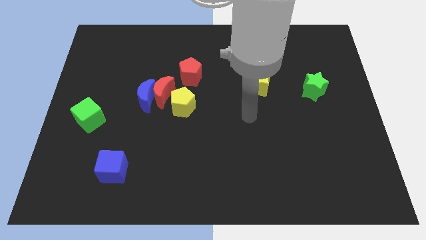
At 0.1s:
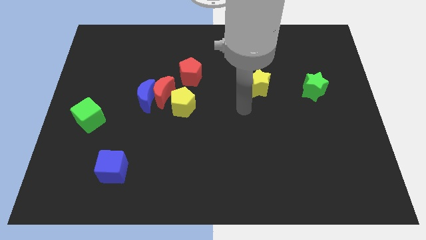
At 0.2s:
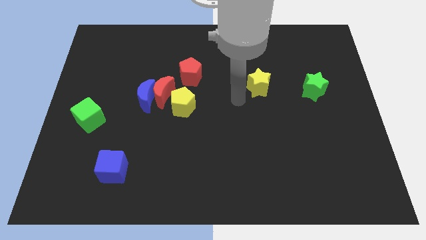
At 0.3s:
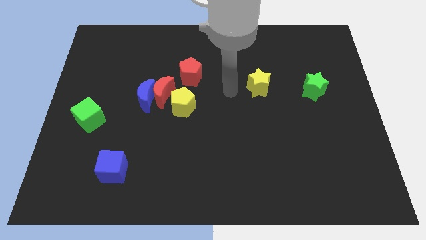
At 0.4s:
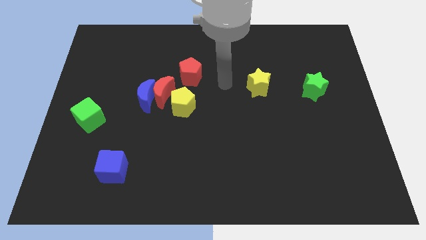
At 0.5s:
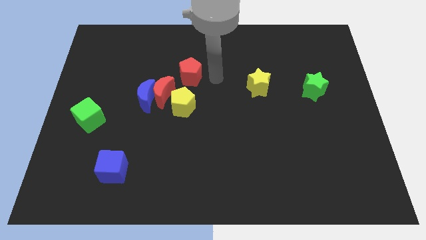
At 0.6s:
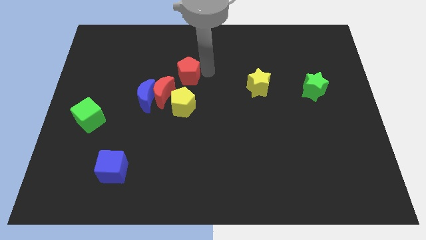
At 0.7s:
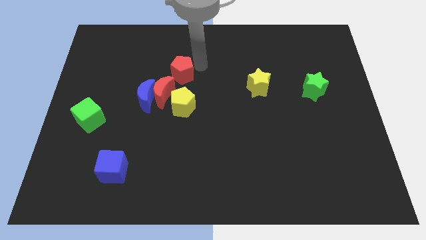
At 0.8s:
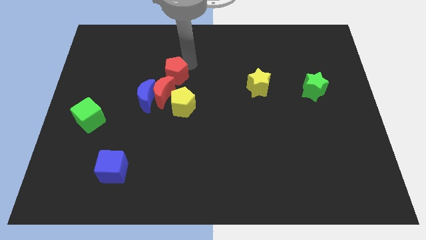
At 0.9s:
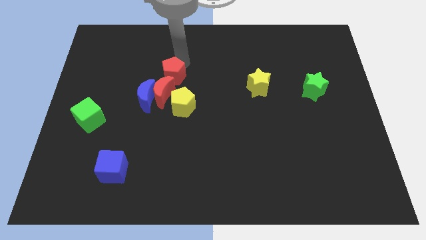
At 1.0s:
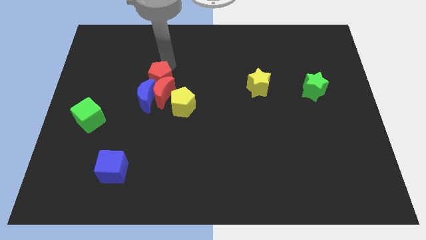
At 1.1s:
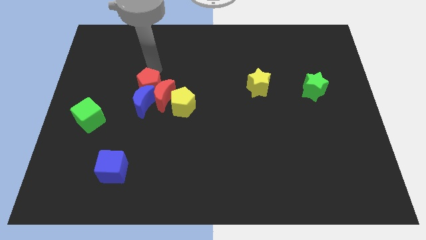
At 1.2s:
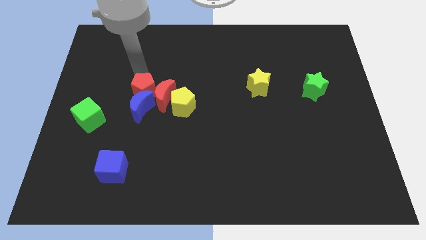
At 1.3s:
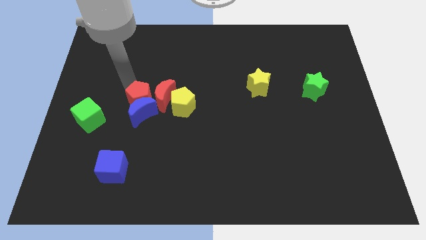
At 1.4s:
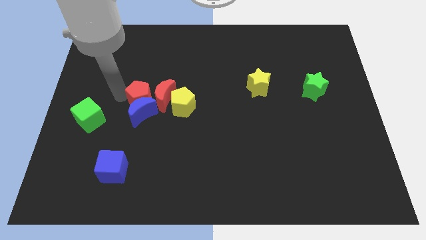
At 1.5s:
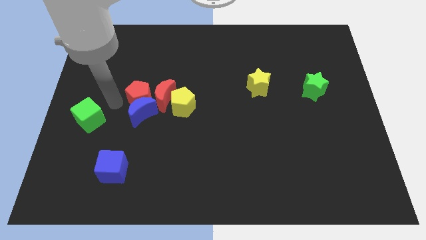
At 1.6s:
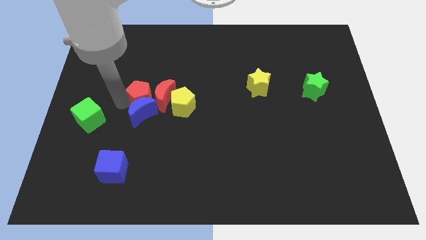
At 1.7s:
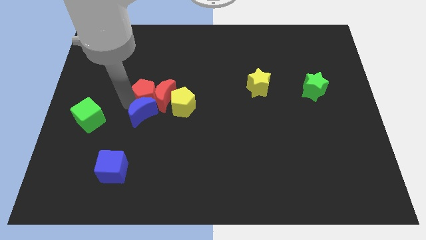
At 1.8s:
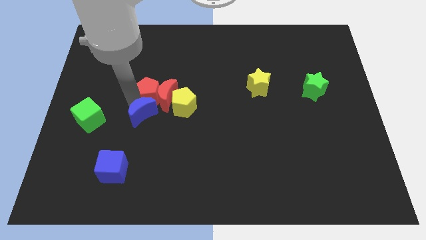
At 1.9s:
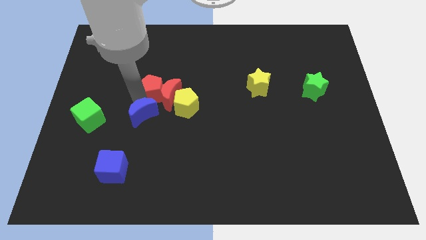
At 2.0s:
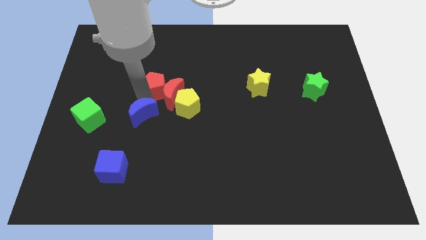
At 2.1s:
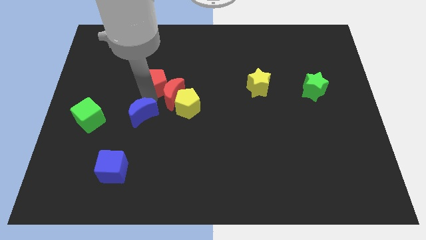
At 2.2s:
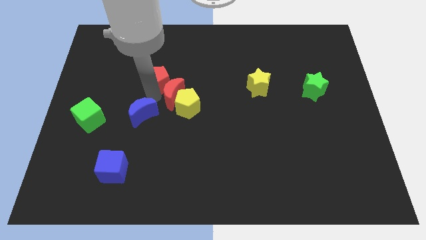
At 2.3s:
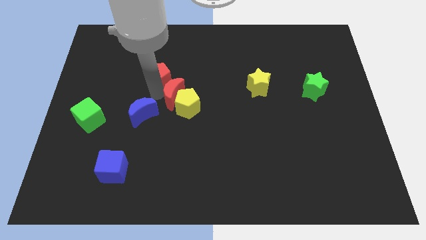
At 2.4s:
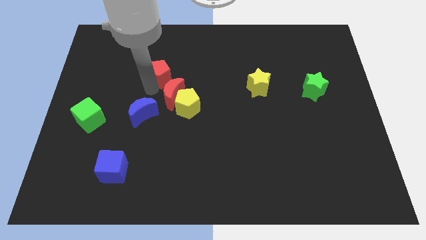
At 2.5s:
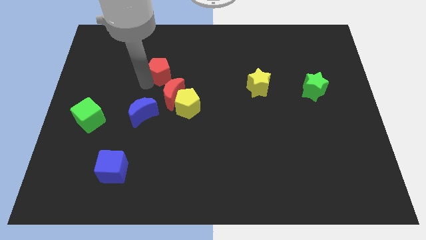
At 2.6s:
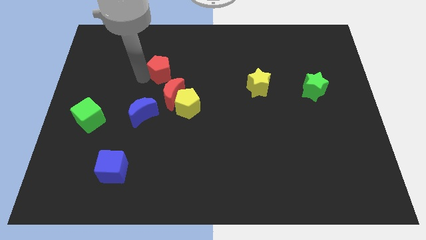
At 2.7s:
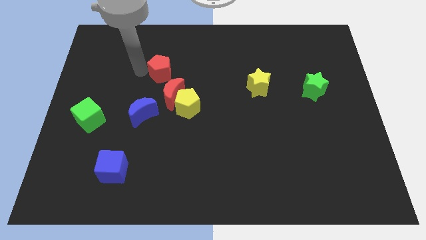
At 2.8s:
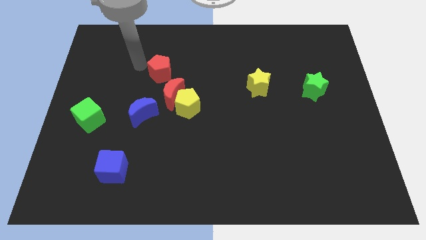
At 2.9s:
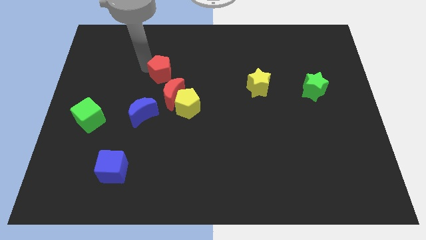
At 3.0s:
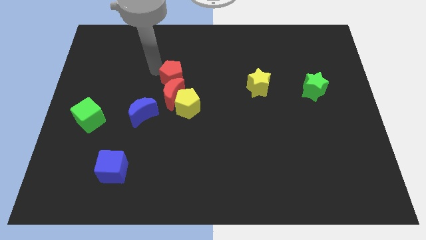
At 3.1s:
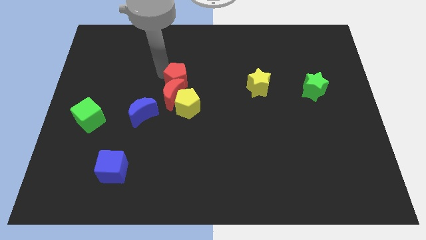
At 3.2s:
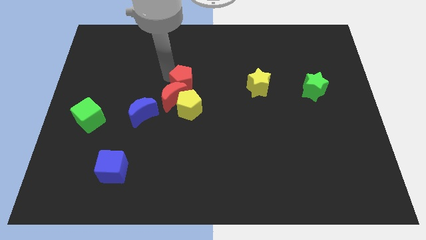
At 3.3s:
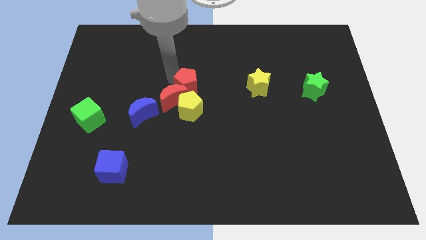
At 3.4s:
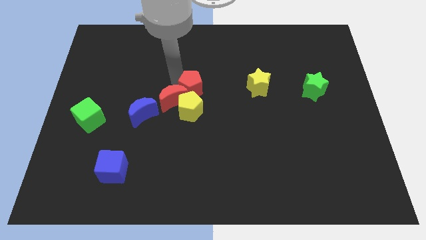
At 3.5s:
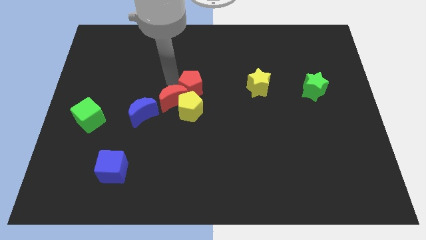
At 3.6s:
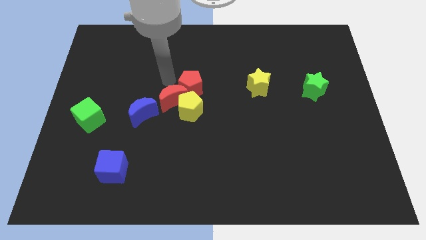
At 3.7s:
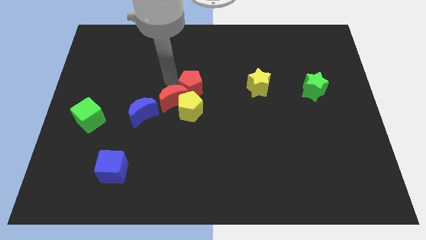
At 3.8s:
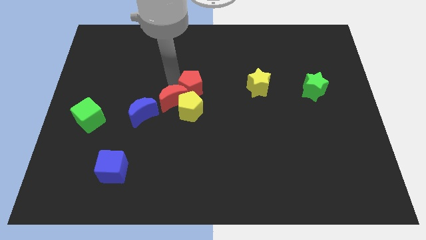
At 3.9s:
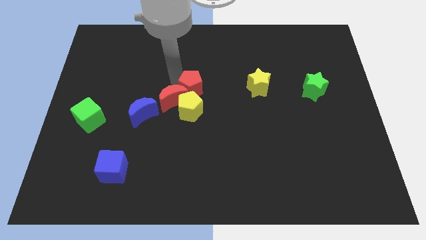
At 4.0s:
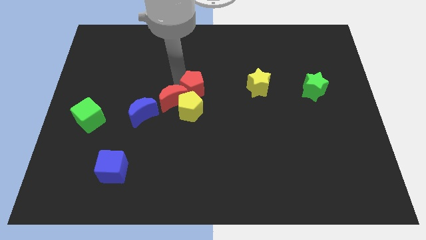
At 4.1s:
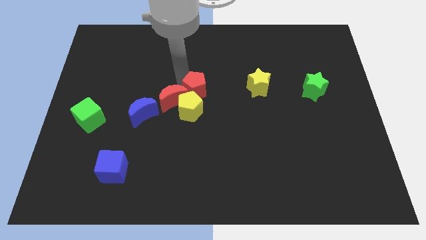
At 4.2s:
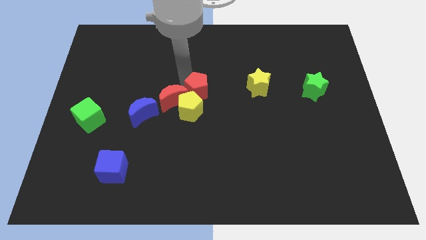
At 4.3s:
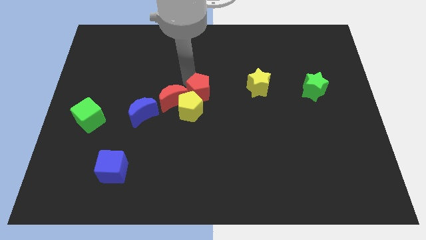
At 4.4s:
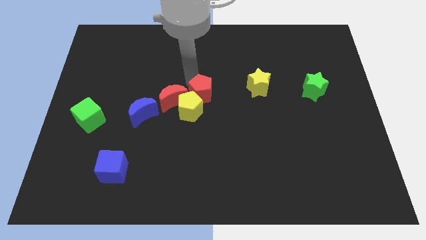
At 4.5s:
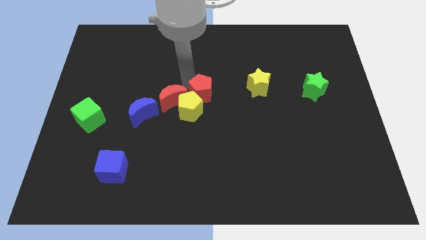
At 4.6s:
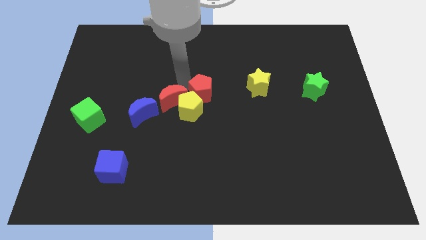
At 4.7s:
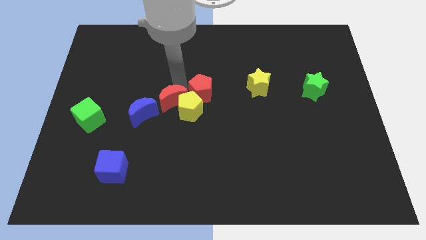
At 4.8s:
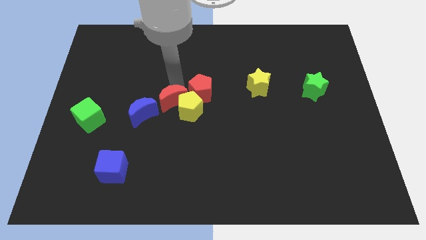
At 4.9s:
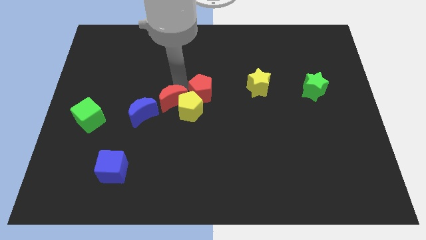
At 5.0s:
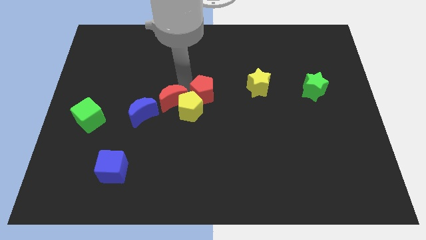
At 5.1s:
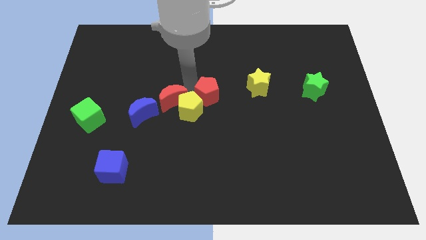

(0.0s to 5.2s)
move the red pentagon down and right a little bit

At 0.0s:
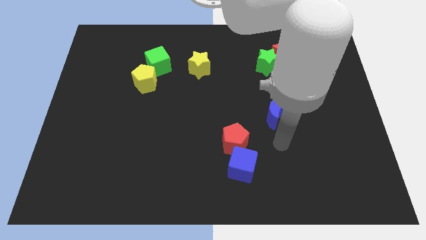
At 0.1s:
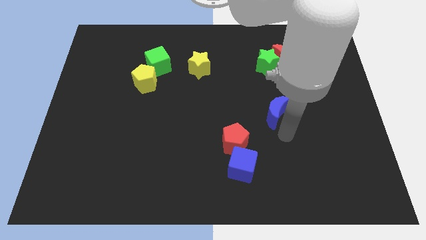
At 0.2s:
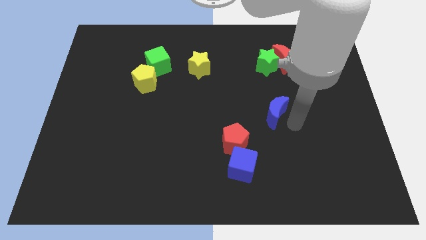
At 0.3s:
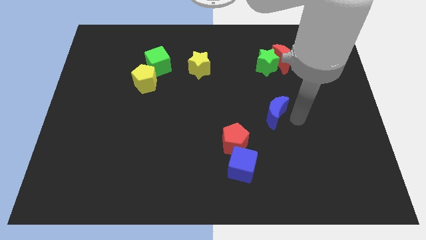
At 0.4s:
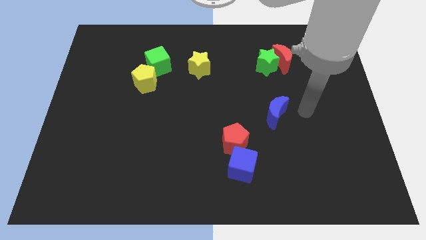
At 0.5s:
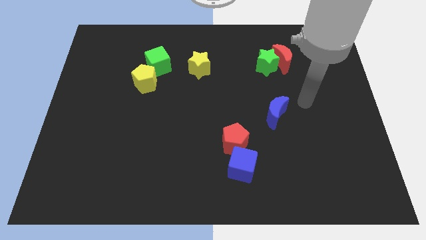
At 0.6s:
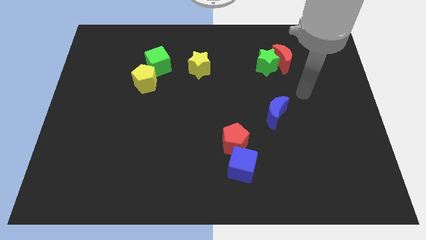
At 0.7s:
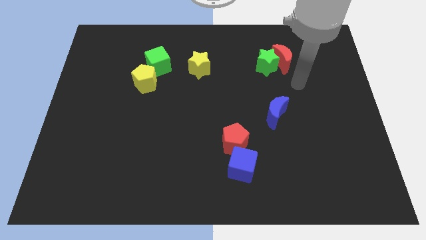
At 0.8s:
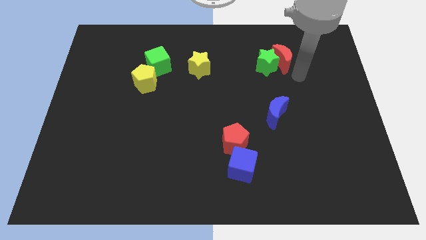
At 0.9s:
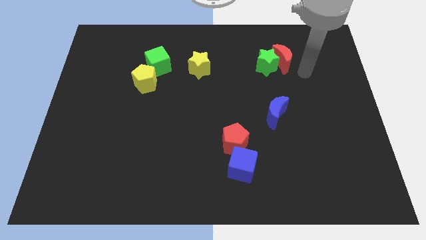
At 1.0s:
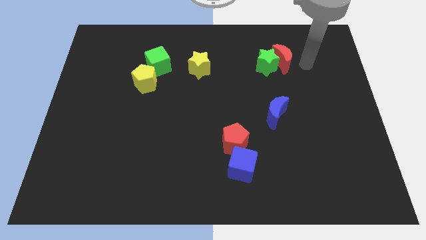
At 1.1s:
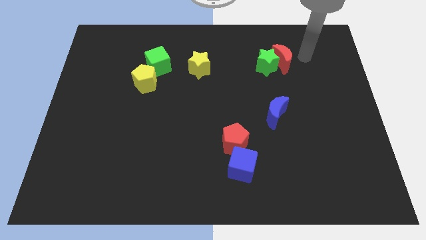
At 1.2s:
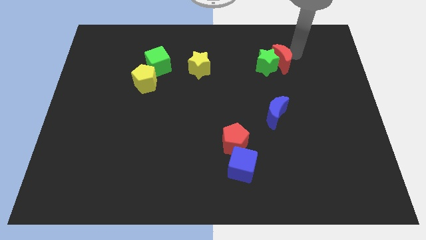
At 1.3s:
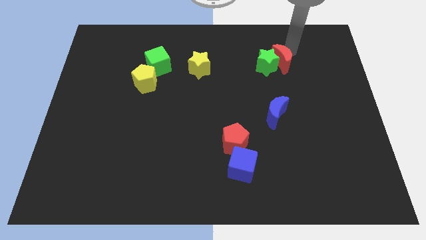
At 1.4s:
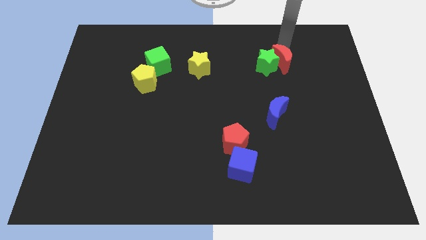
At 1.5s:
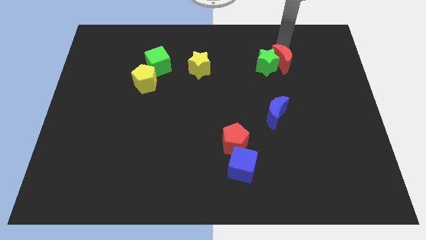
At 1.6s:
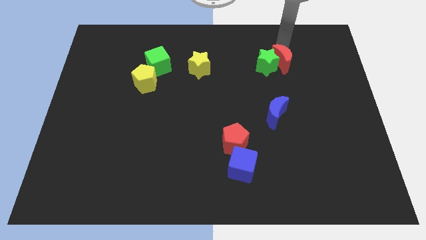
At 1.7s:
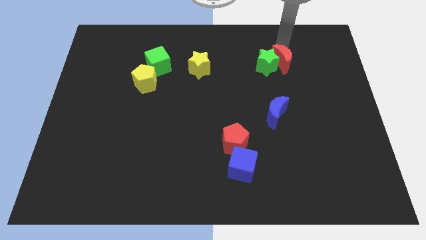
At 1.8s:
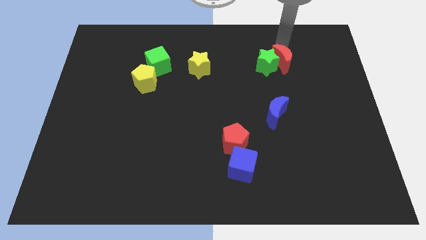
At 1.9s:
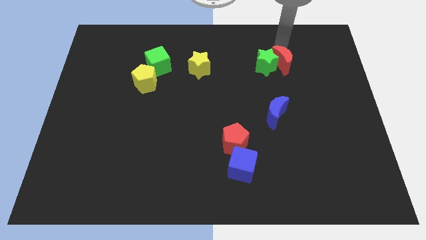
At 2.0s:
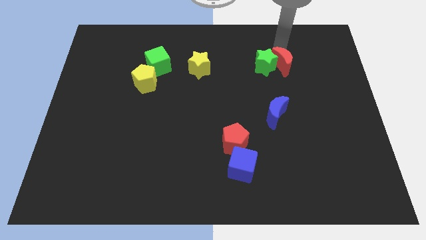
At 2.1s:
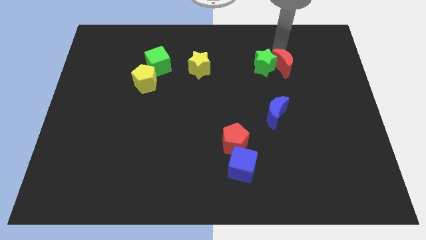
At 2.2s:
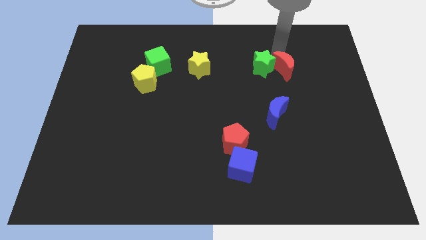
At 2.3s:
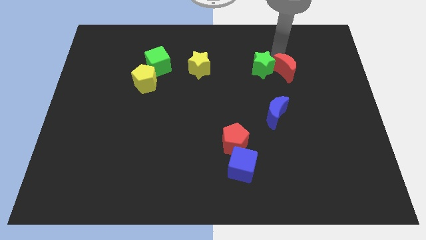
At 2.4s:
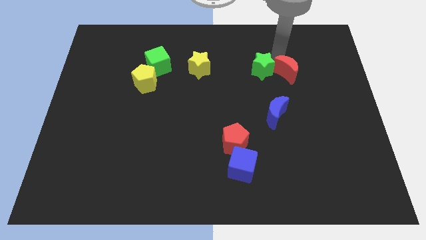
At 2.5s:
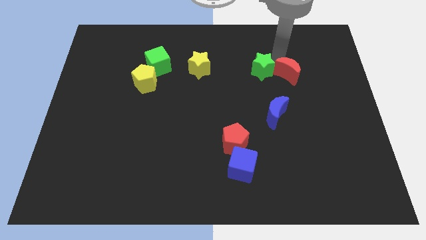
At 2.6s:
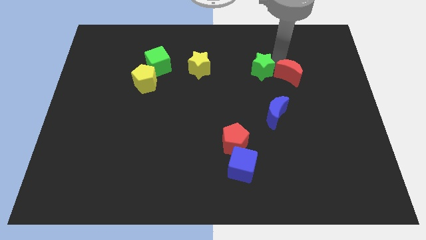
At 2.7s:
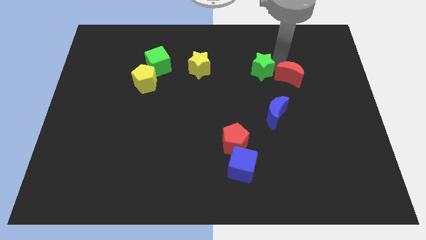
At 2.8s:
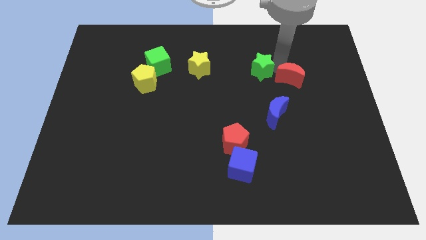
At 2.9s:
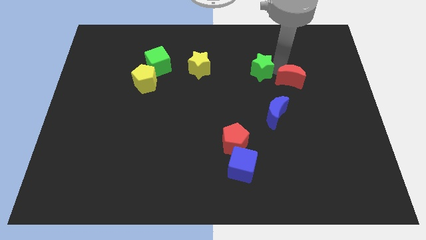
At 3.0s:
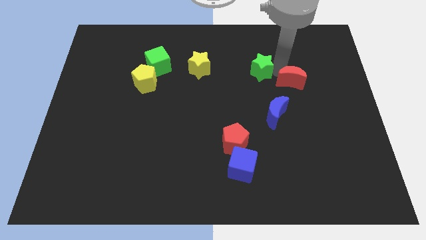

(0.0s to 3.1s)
slide the red moon somewhat down
